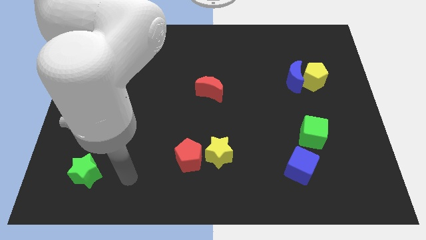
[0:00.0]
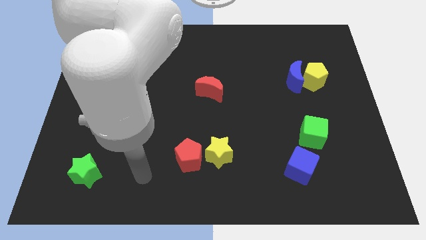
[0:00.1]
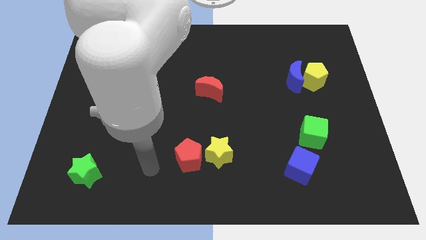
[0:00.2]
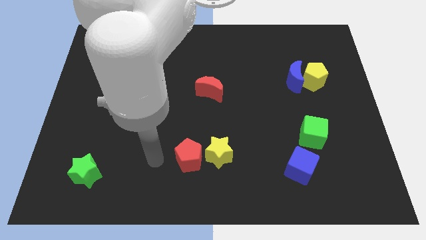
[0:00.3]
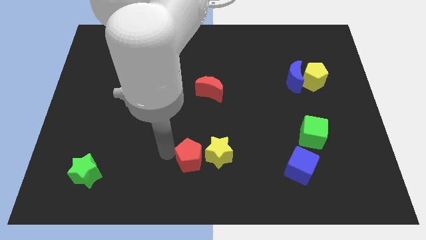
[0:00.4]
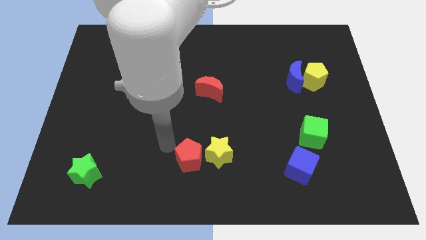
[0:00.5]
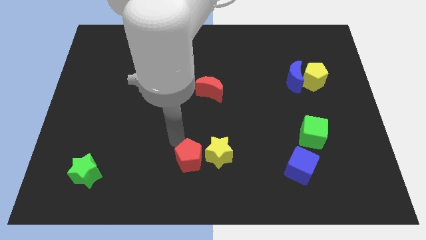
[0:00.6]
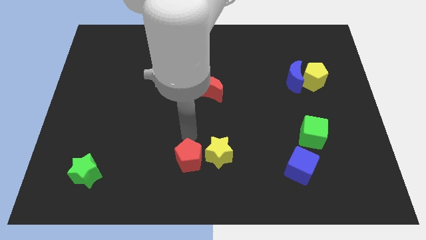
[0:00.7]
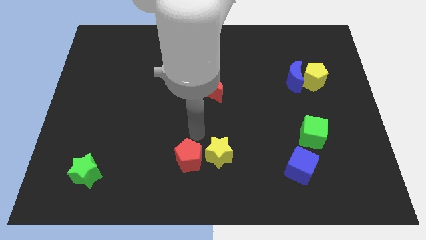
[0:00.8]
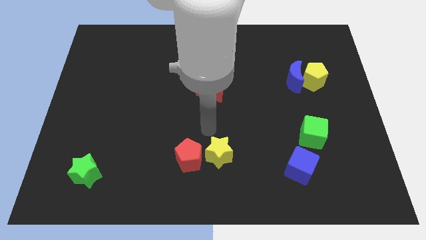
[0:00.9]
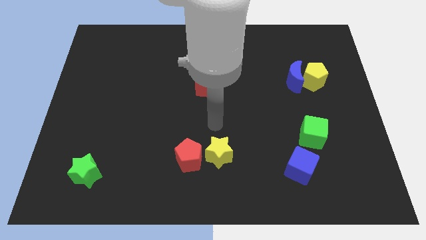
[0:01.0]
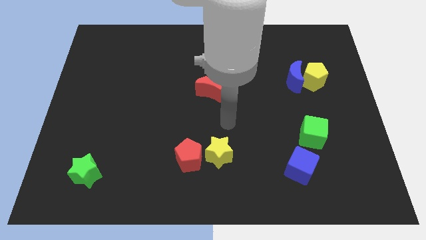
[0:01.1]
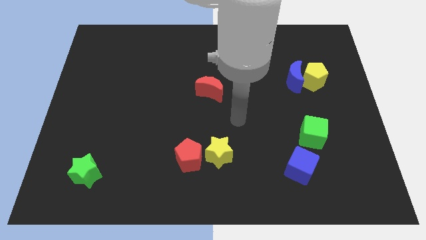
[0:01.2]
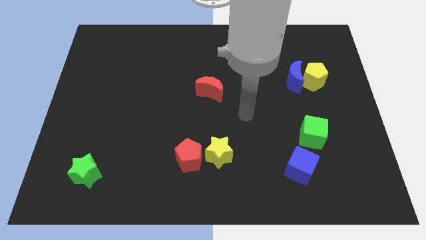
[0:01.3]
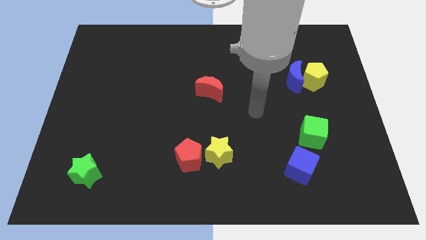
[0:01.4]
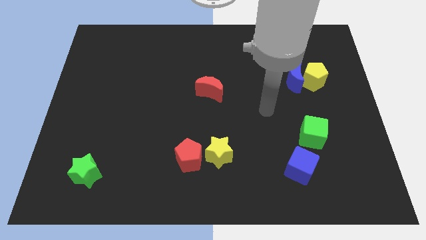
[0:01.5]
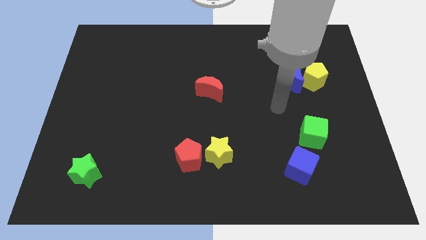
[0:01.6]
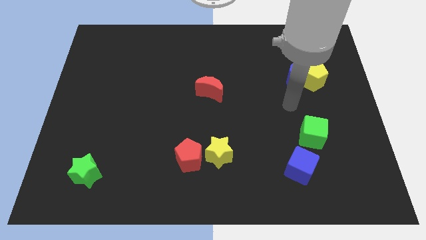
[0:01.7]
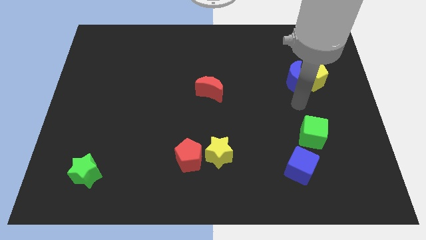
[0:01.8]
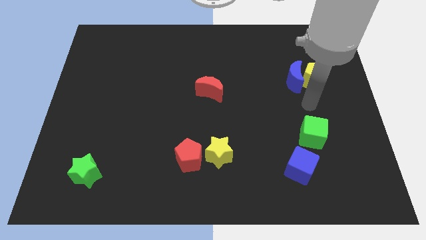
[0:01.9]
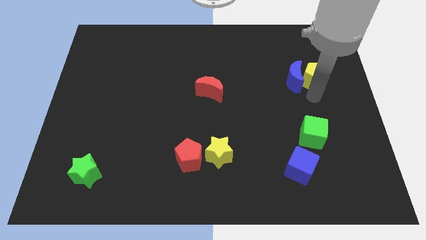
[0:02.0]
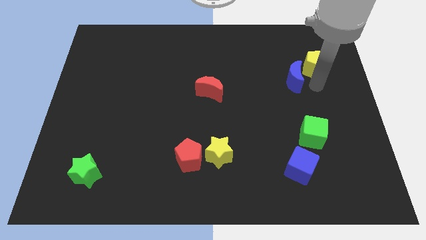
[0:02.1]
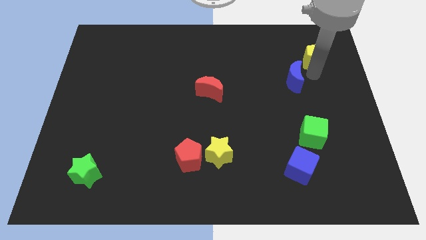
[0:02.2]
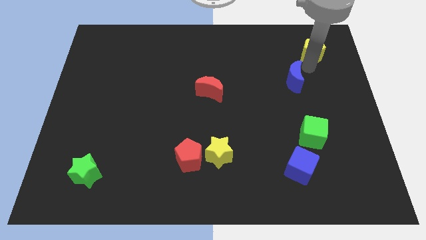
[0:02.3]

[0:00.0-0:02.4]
move the blue moon away from the yellow pentagon

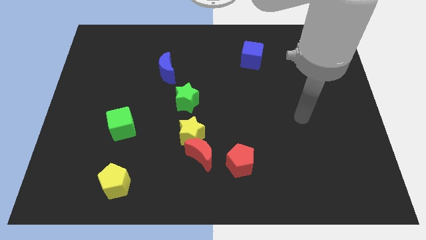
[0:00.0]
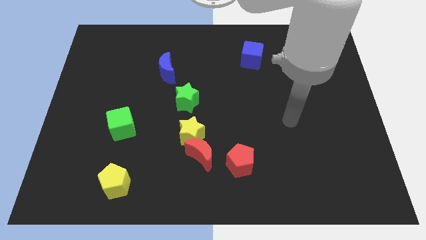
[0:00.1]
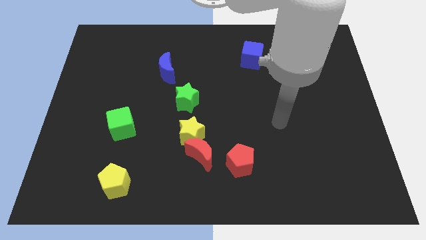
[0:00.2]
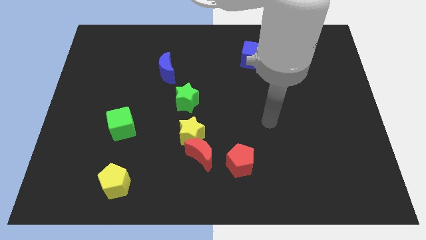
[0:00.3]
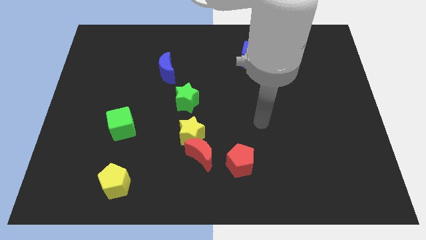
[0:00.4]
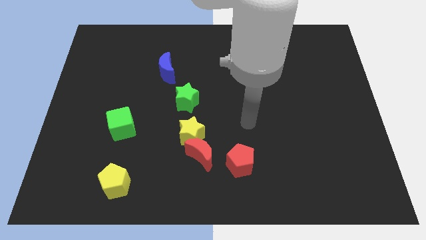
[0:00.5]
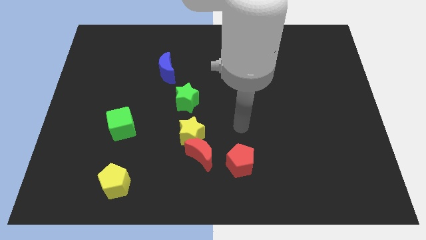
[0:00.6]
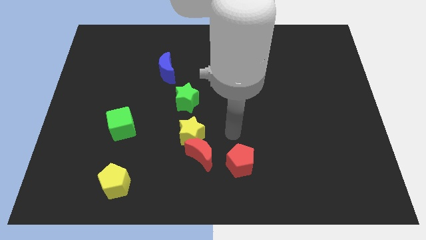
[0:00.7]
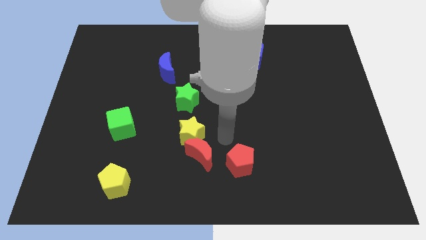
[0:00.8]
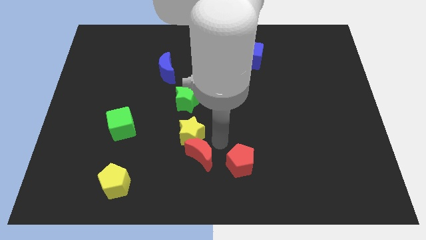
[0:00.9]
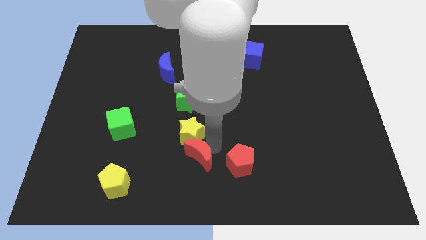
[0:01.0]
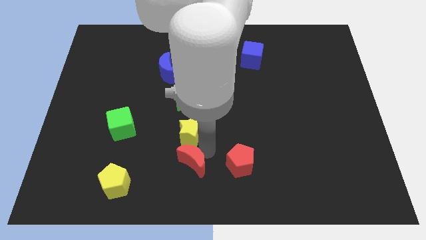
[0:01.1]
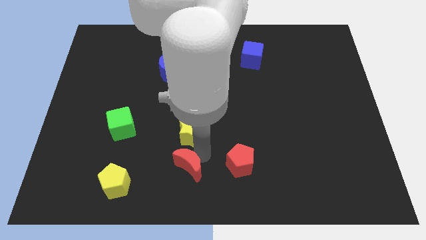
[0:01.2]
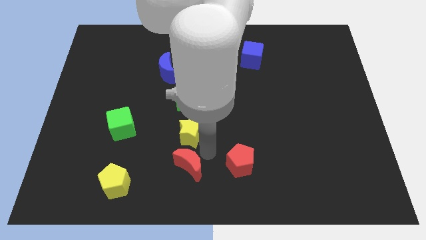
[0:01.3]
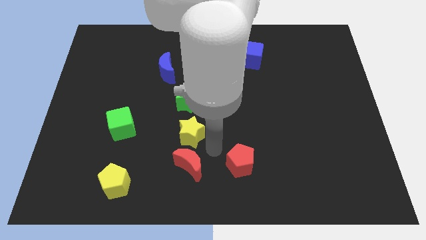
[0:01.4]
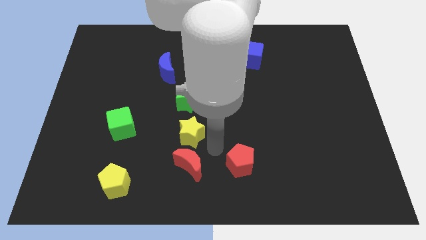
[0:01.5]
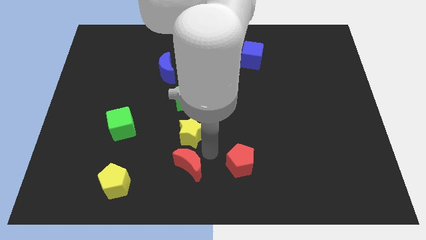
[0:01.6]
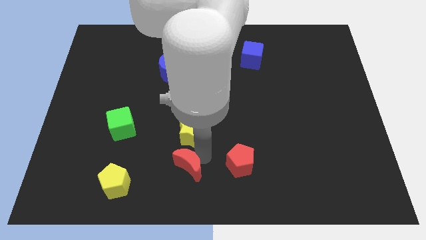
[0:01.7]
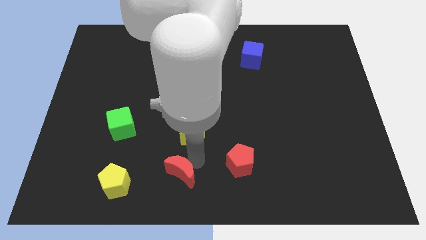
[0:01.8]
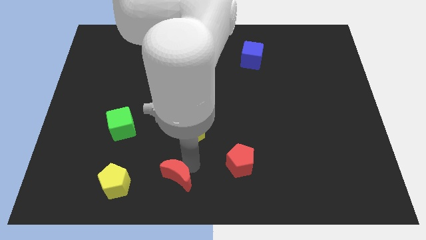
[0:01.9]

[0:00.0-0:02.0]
move the red moon away from the yellow star and red pentagon

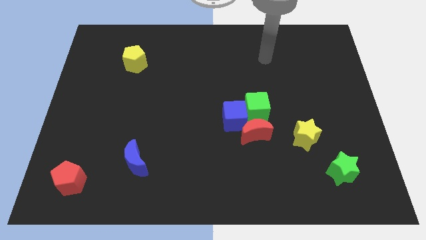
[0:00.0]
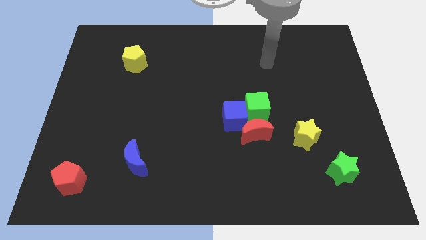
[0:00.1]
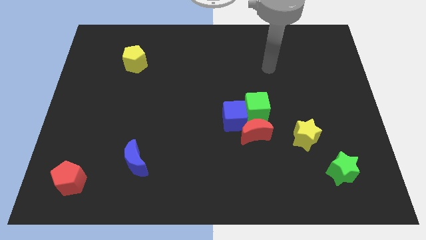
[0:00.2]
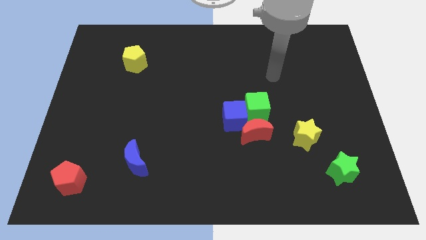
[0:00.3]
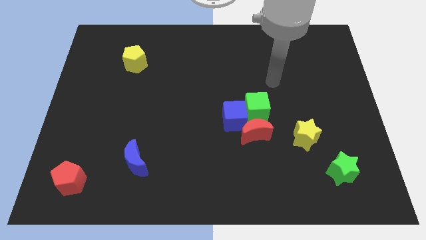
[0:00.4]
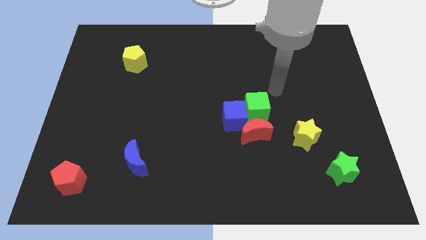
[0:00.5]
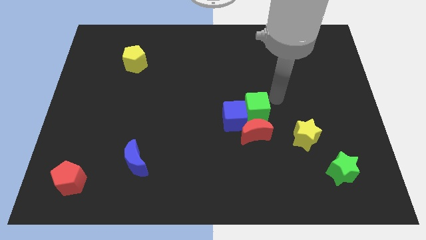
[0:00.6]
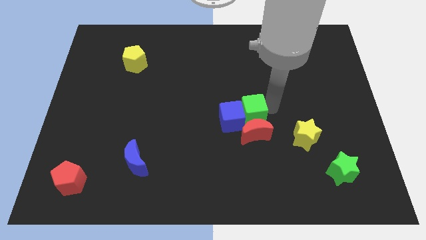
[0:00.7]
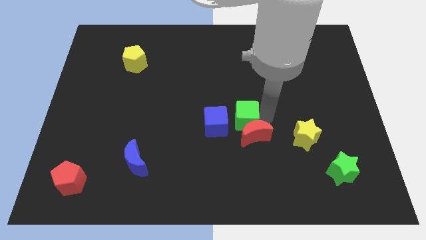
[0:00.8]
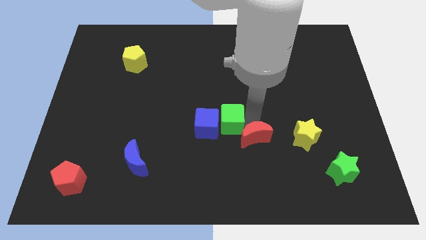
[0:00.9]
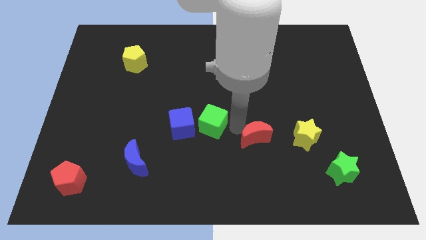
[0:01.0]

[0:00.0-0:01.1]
move the blue cube away from the green cube and red moon

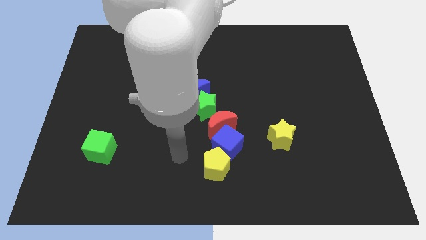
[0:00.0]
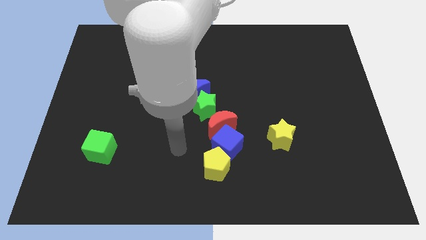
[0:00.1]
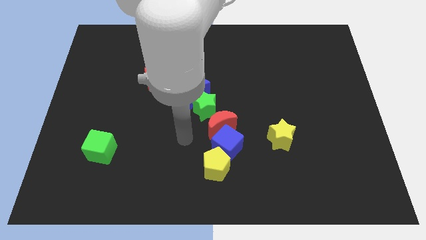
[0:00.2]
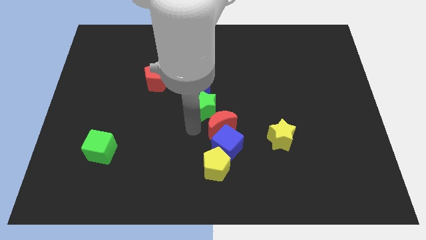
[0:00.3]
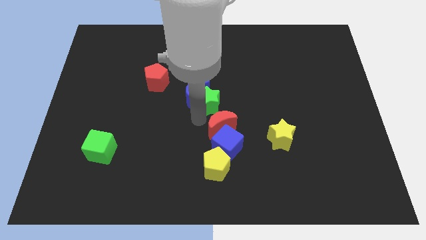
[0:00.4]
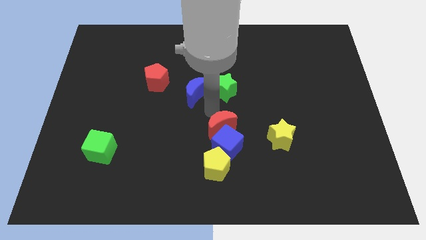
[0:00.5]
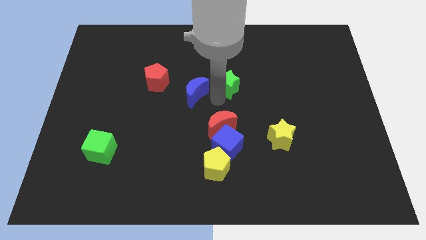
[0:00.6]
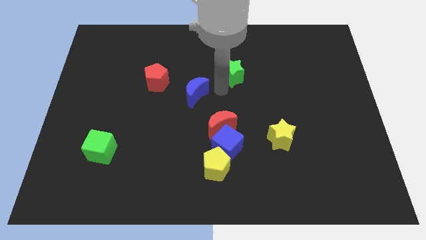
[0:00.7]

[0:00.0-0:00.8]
move the blue moon away from the green star

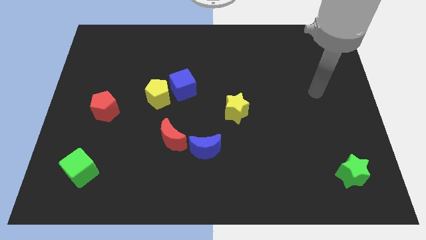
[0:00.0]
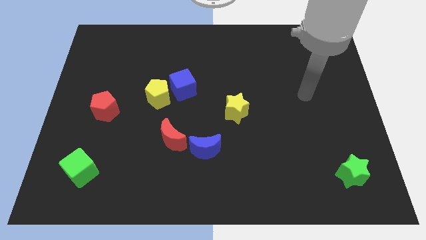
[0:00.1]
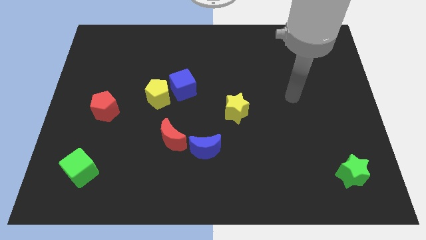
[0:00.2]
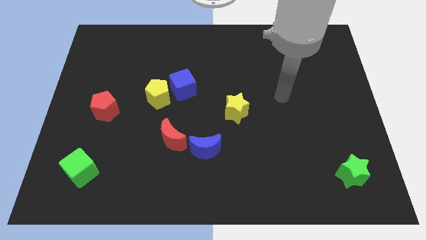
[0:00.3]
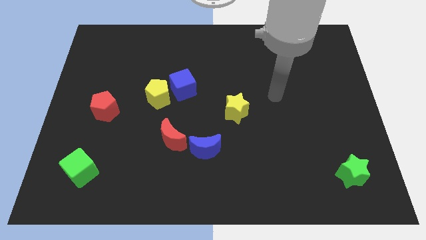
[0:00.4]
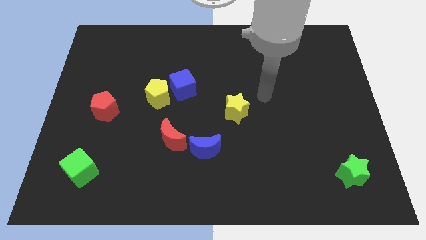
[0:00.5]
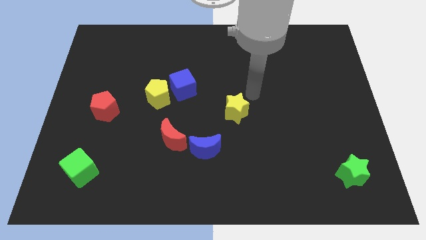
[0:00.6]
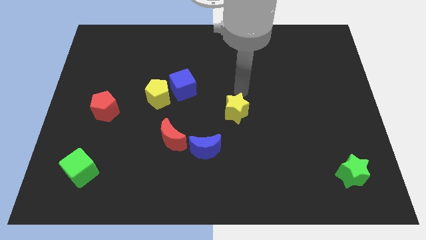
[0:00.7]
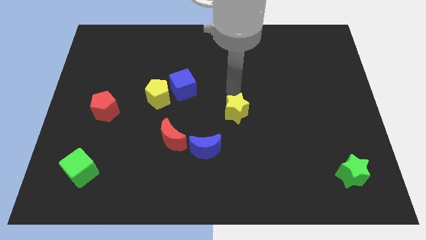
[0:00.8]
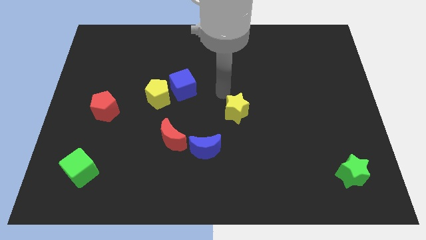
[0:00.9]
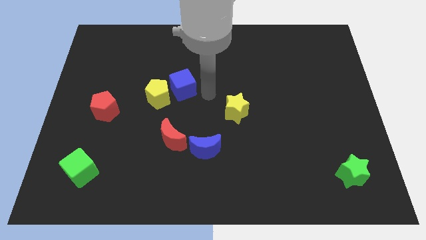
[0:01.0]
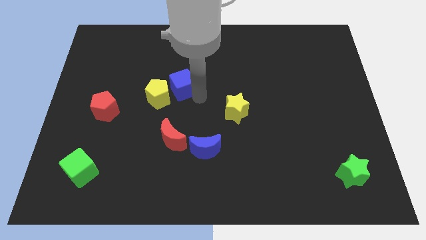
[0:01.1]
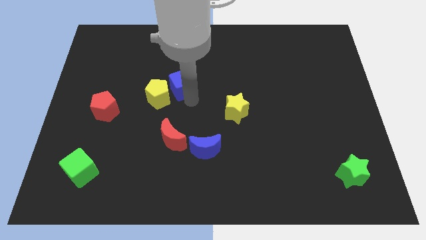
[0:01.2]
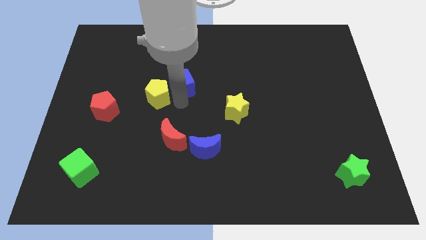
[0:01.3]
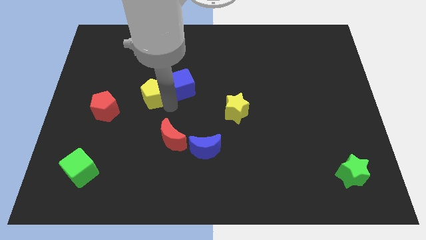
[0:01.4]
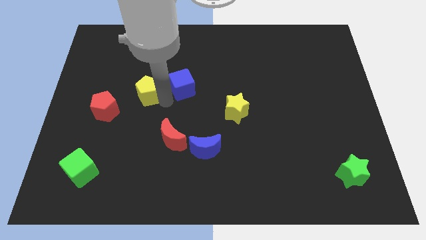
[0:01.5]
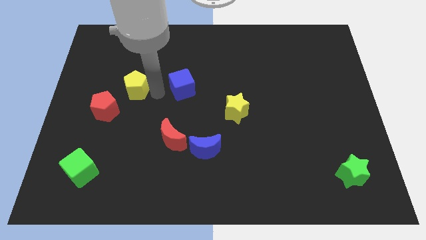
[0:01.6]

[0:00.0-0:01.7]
move the blue cube away from the yellow pentagon

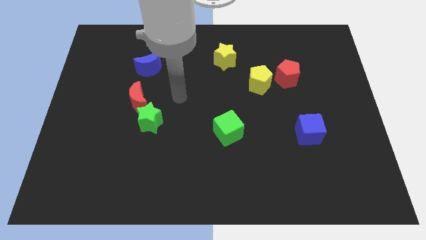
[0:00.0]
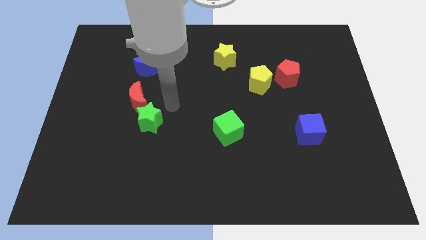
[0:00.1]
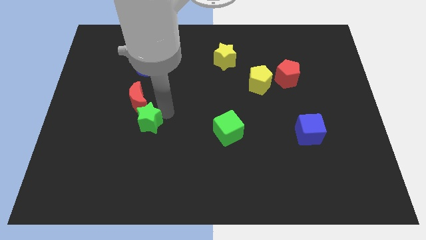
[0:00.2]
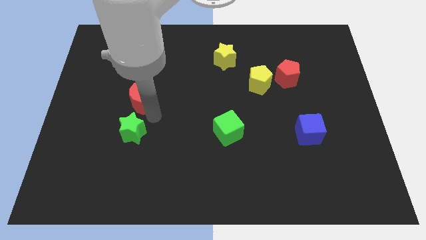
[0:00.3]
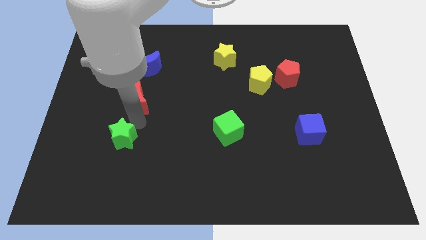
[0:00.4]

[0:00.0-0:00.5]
pull the red moon apart from the green star

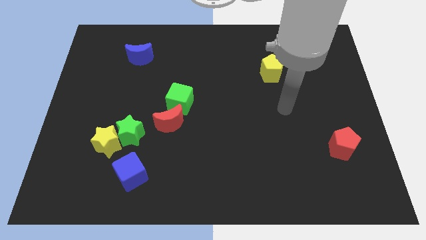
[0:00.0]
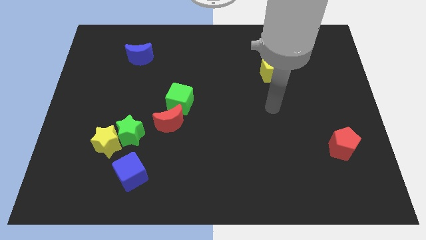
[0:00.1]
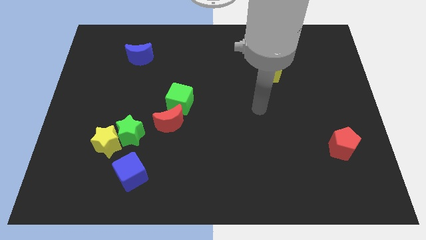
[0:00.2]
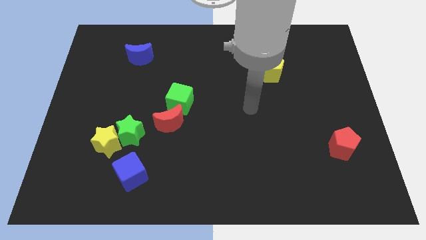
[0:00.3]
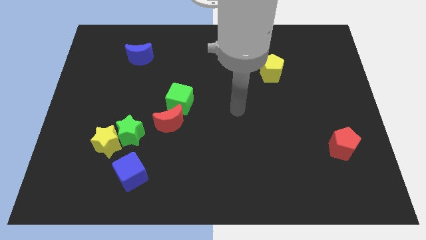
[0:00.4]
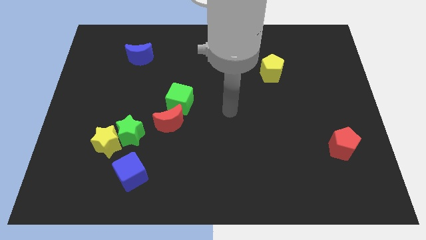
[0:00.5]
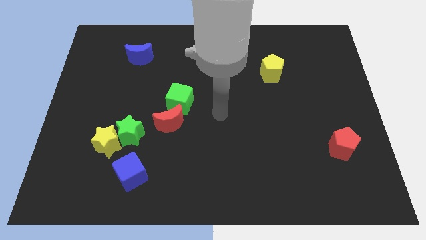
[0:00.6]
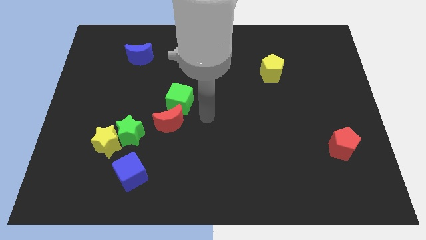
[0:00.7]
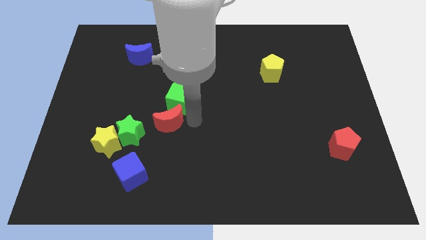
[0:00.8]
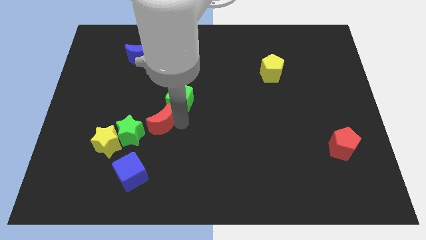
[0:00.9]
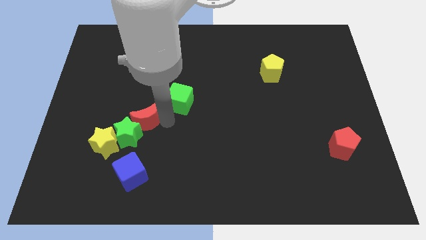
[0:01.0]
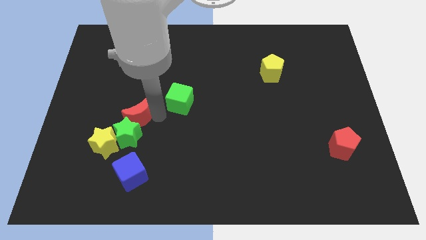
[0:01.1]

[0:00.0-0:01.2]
move the green cube away from the red moon
